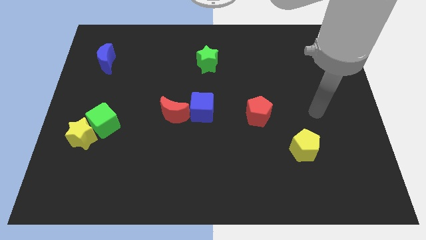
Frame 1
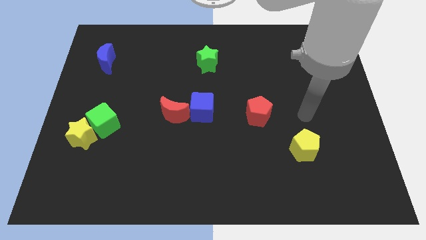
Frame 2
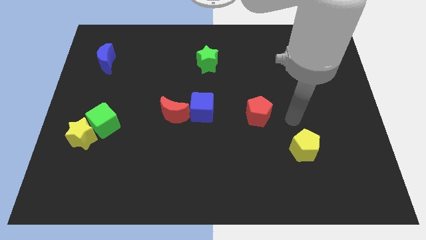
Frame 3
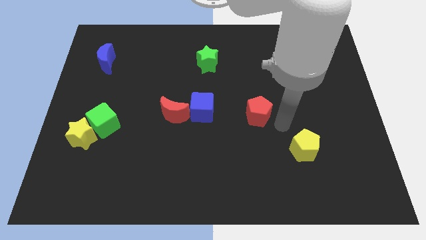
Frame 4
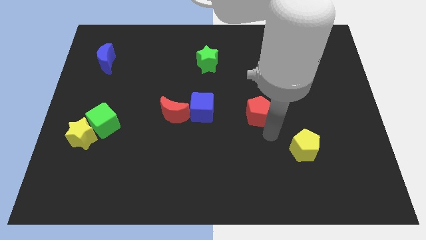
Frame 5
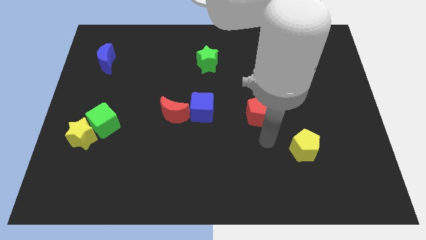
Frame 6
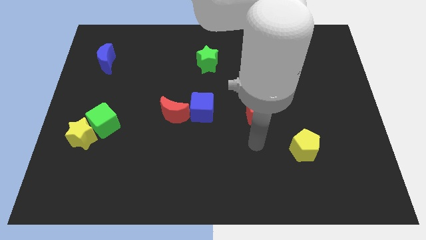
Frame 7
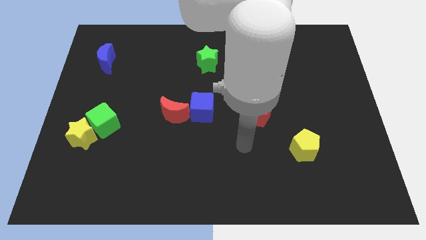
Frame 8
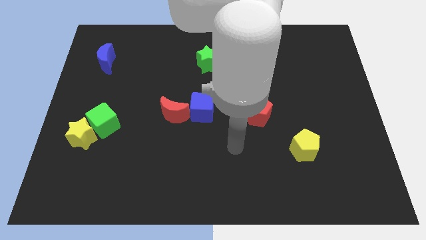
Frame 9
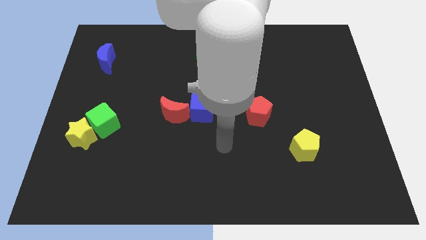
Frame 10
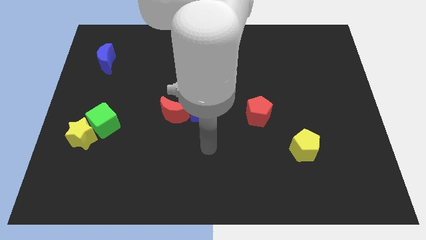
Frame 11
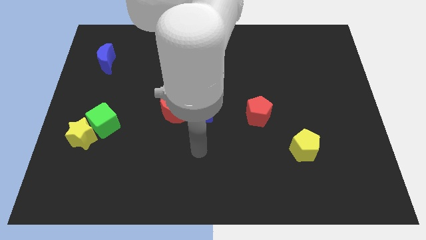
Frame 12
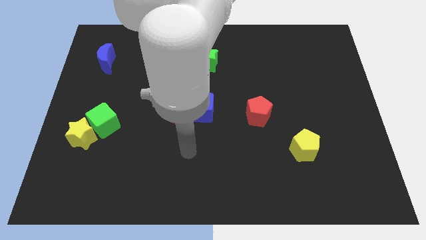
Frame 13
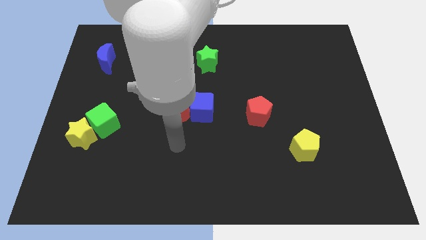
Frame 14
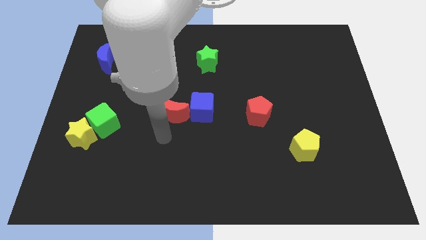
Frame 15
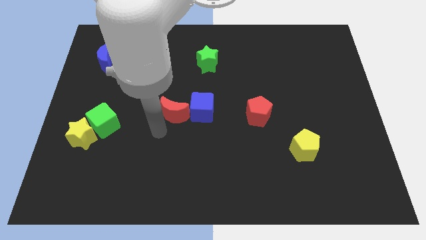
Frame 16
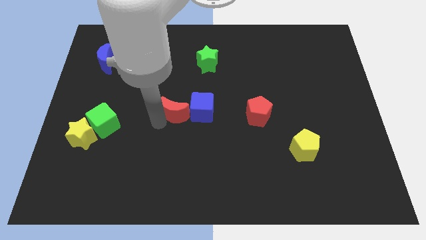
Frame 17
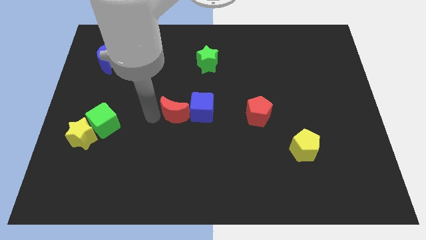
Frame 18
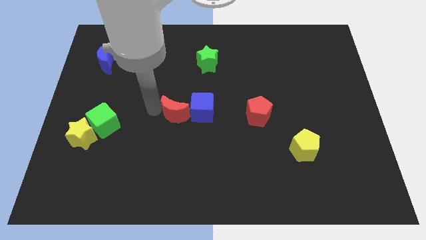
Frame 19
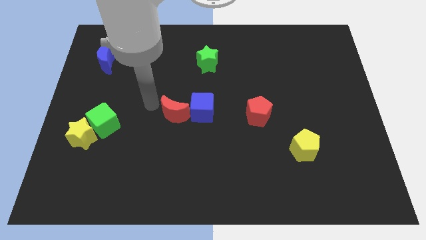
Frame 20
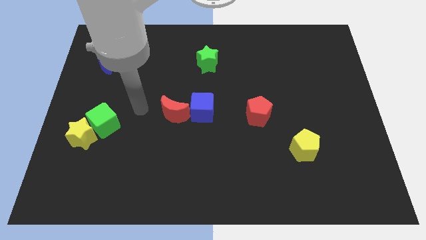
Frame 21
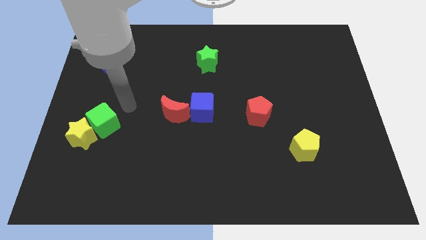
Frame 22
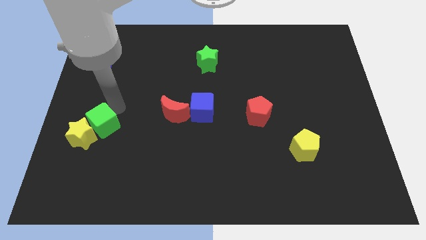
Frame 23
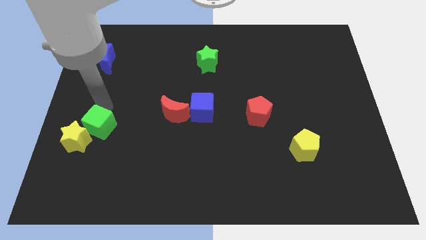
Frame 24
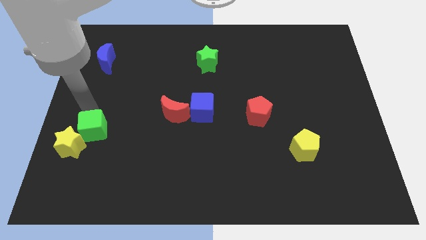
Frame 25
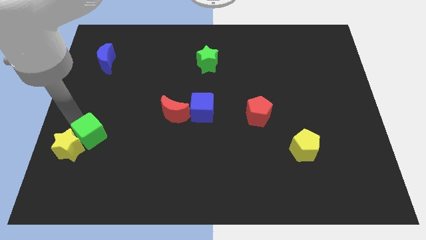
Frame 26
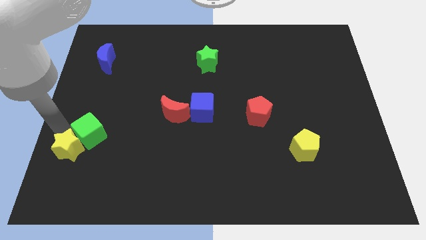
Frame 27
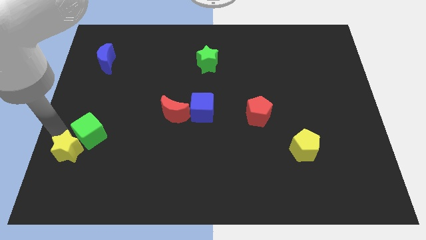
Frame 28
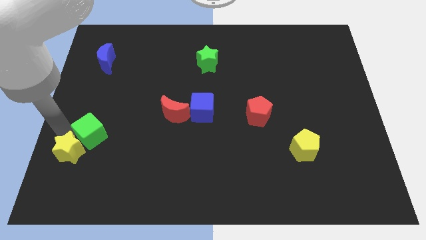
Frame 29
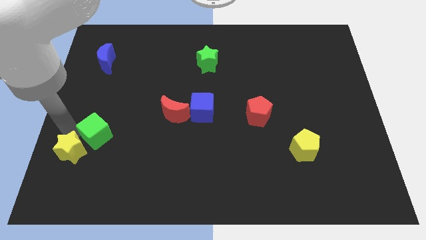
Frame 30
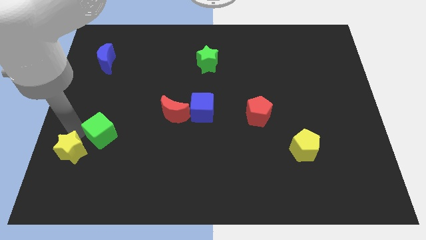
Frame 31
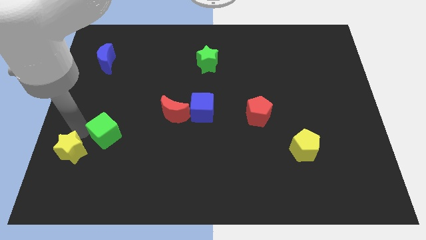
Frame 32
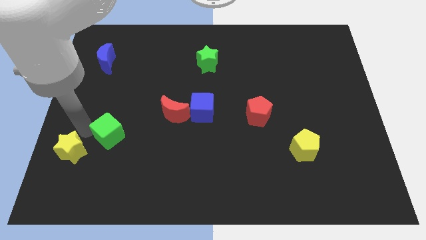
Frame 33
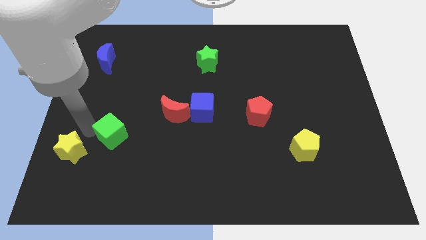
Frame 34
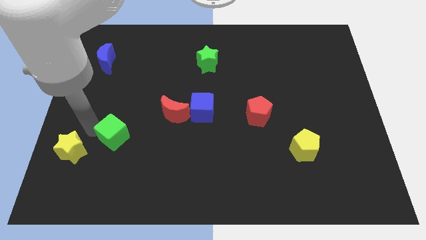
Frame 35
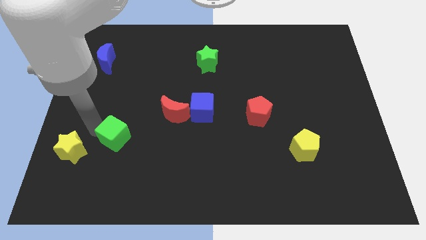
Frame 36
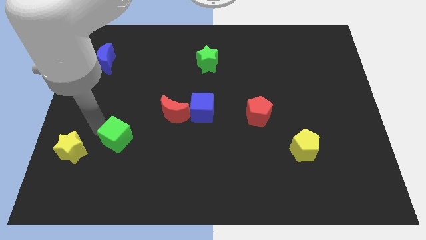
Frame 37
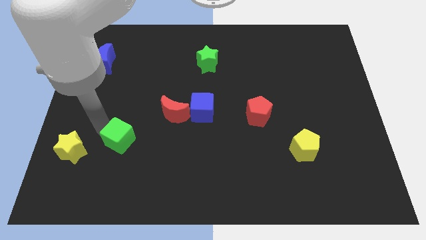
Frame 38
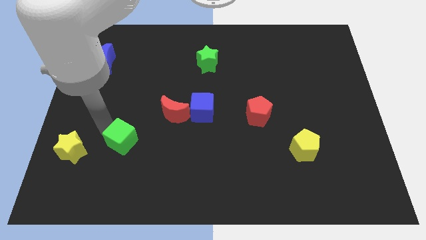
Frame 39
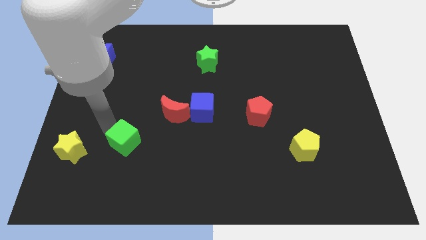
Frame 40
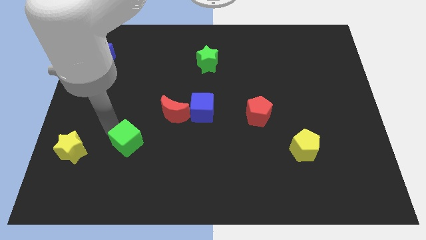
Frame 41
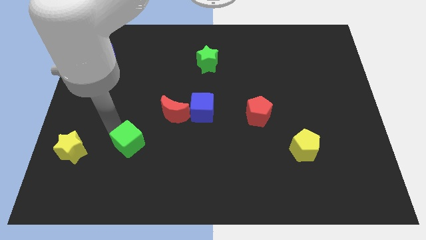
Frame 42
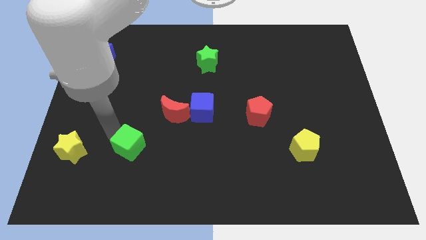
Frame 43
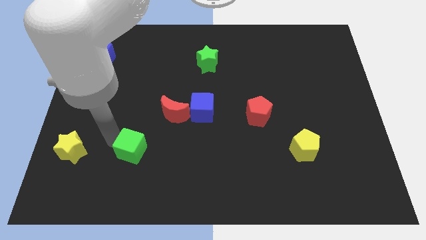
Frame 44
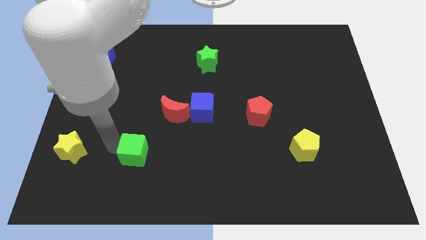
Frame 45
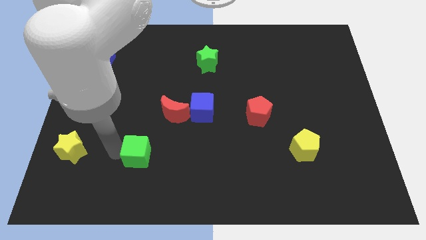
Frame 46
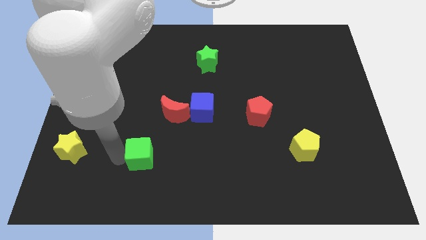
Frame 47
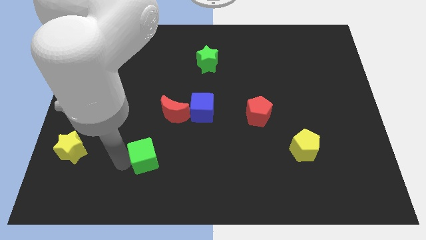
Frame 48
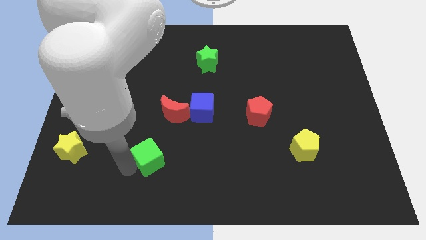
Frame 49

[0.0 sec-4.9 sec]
slightly move the green cube to the right

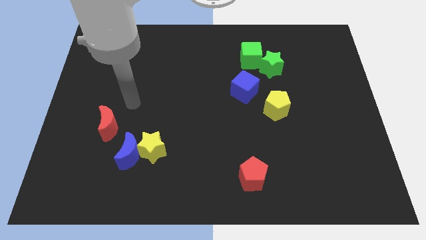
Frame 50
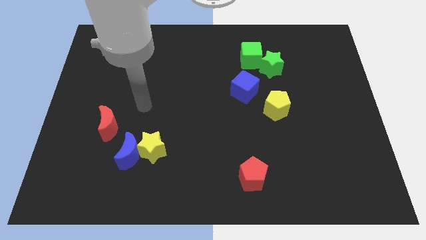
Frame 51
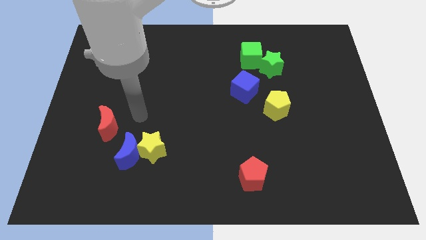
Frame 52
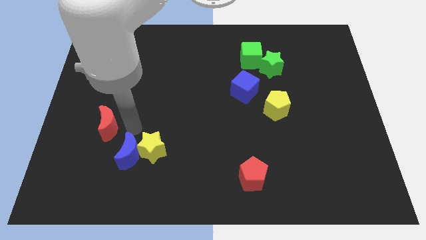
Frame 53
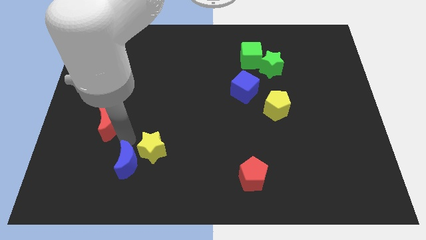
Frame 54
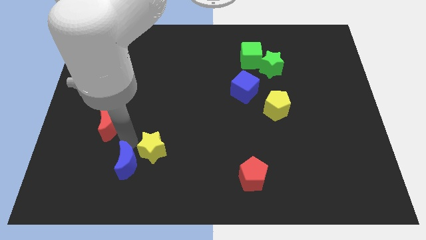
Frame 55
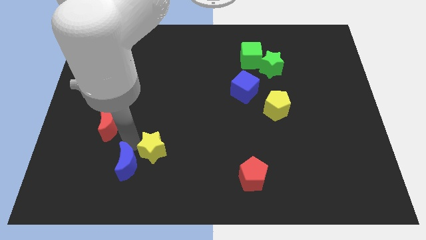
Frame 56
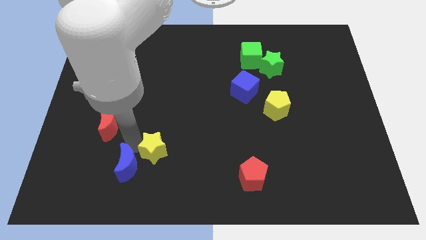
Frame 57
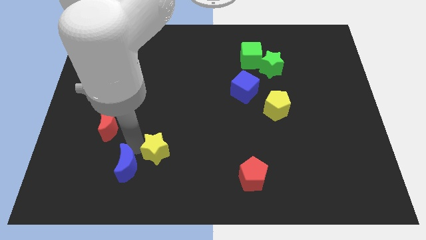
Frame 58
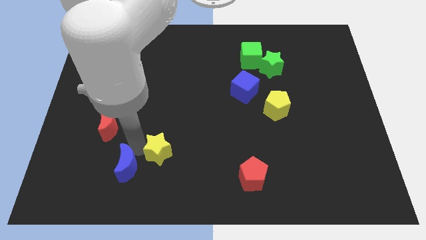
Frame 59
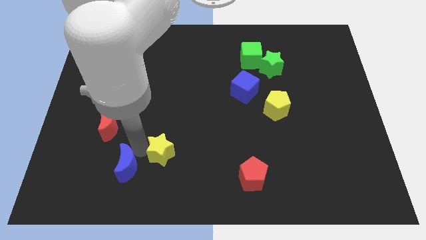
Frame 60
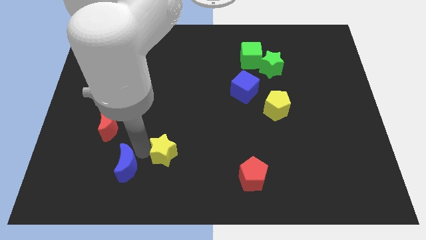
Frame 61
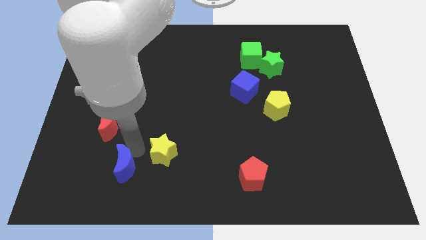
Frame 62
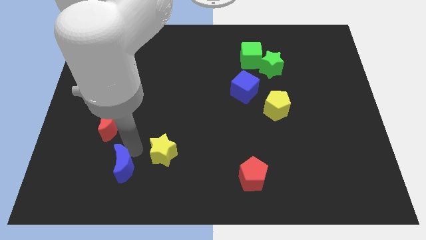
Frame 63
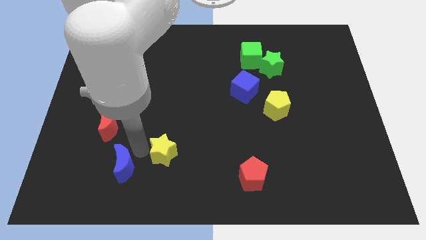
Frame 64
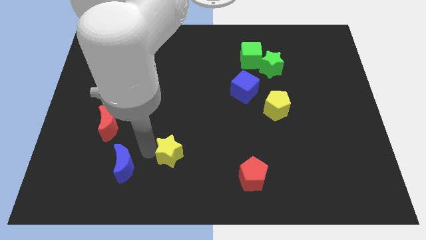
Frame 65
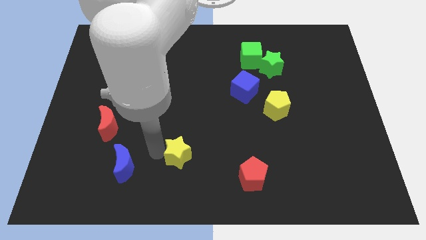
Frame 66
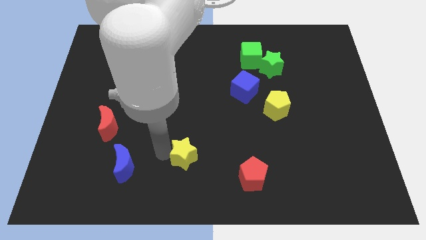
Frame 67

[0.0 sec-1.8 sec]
slide the yellow star a bit right

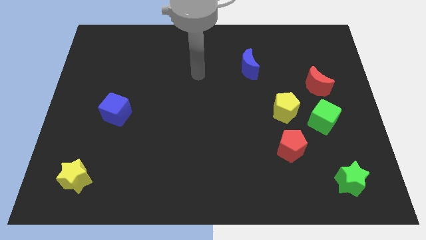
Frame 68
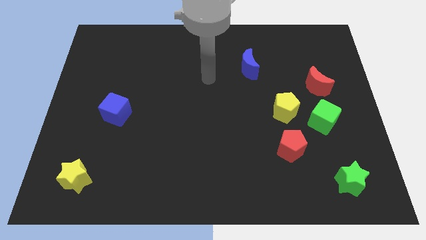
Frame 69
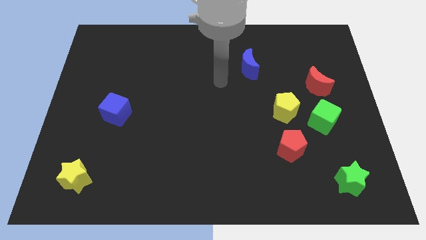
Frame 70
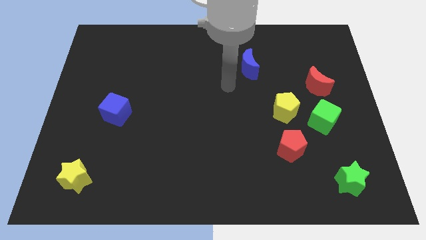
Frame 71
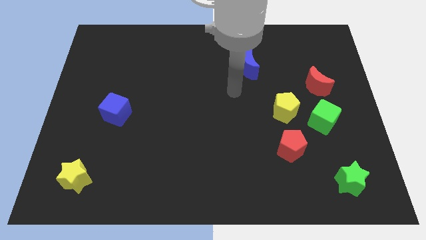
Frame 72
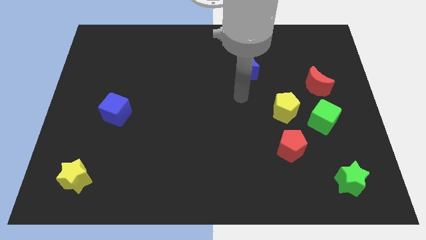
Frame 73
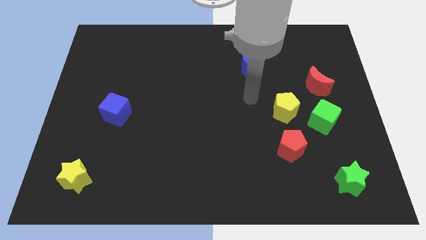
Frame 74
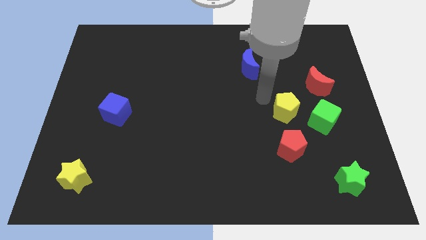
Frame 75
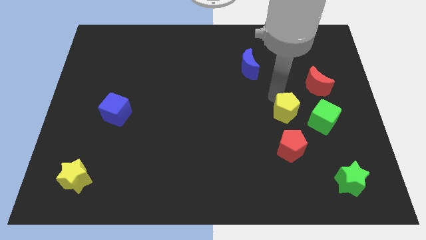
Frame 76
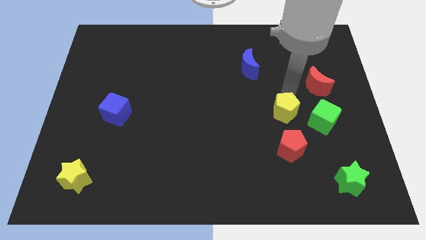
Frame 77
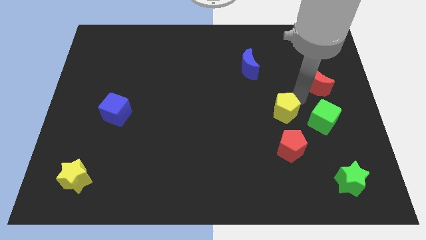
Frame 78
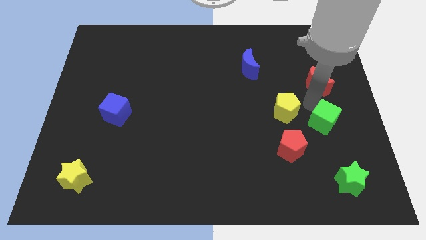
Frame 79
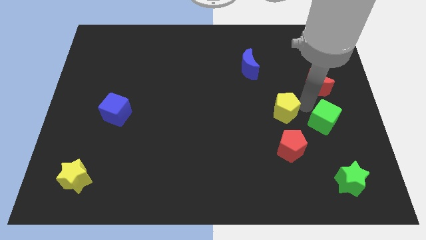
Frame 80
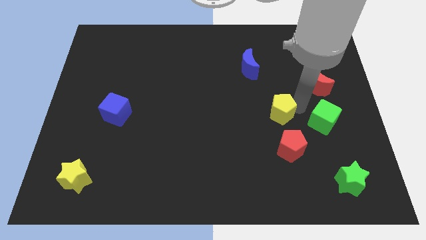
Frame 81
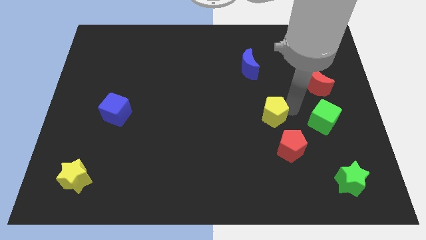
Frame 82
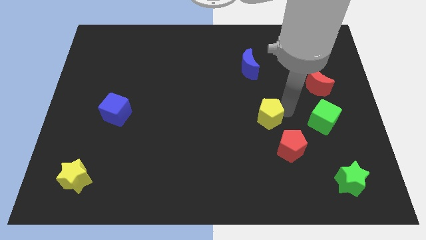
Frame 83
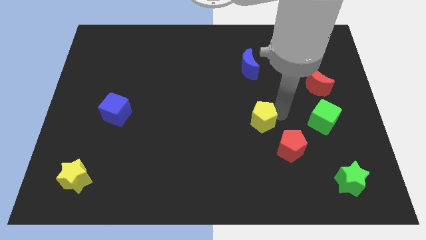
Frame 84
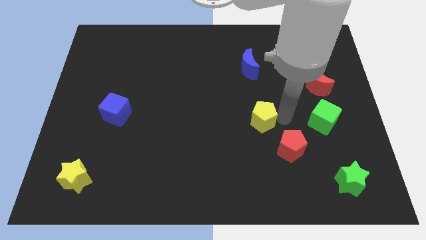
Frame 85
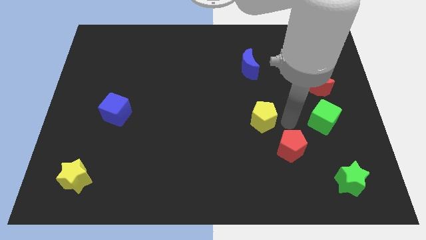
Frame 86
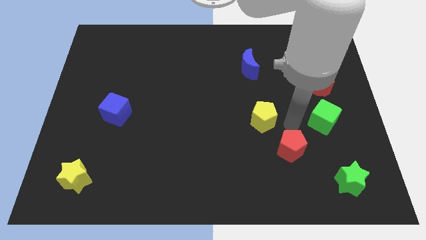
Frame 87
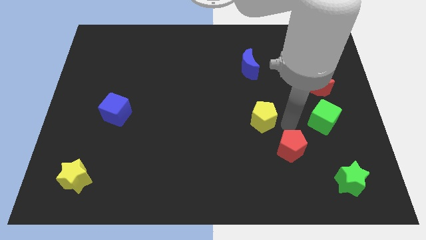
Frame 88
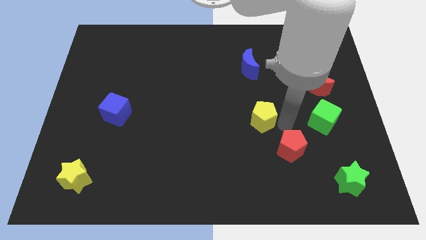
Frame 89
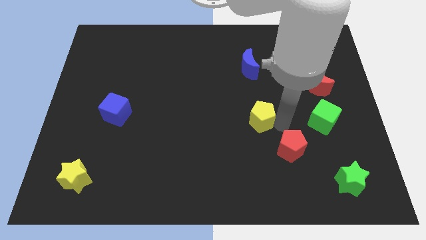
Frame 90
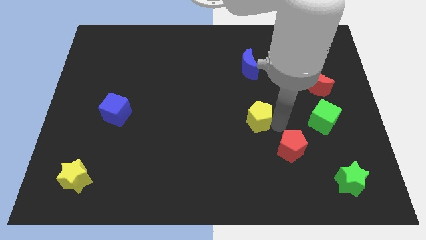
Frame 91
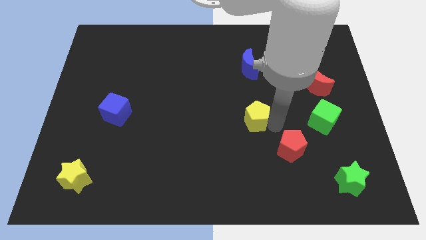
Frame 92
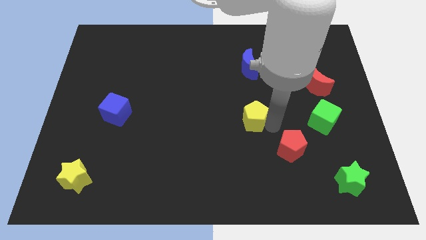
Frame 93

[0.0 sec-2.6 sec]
slightly slide the yellow pentagon left
